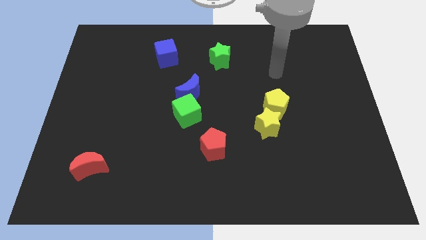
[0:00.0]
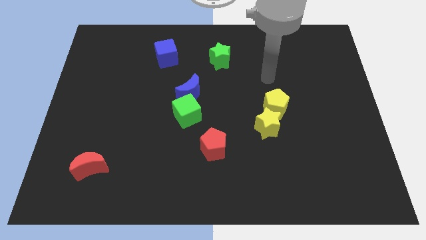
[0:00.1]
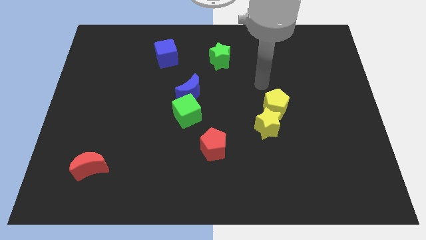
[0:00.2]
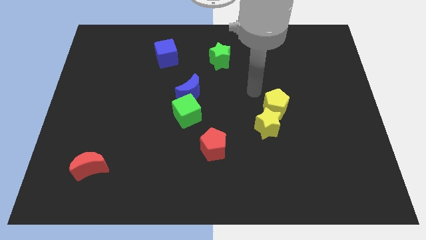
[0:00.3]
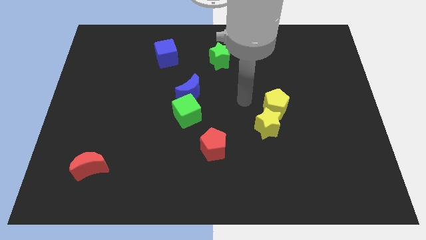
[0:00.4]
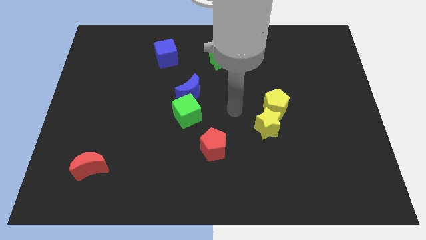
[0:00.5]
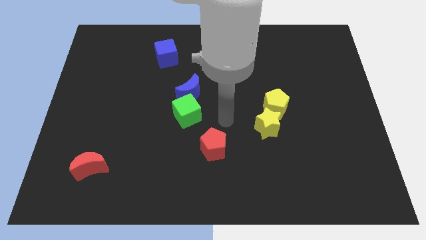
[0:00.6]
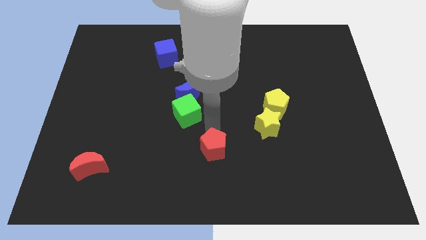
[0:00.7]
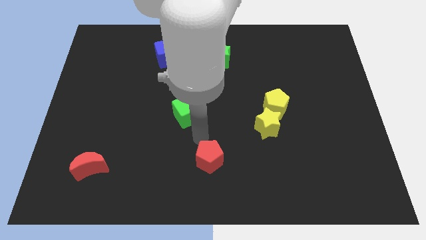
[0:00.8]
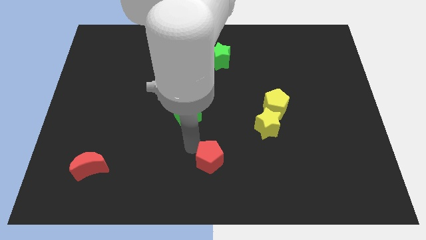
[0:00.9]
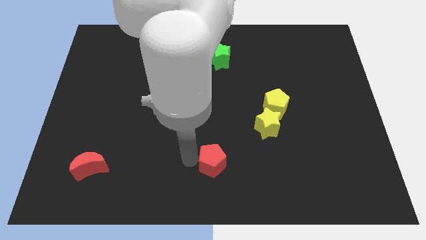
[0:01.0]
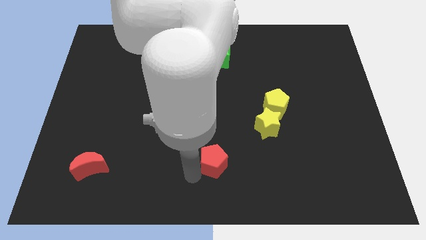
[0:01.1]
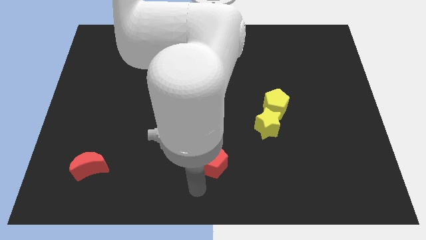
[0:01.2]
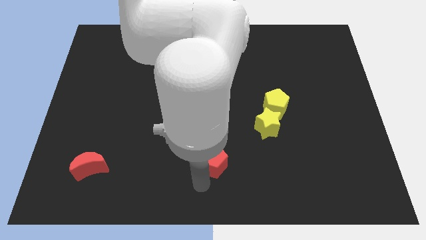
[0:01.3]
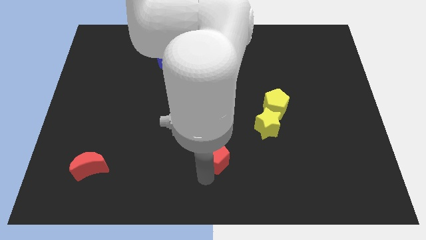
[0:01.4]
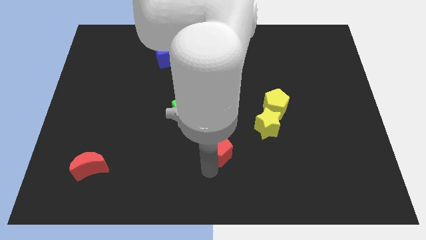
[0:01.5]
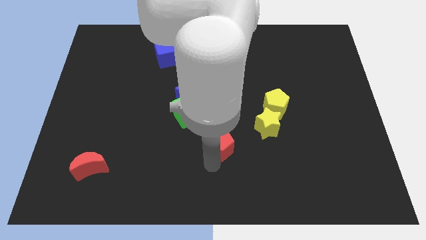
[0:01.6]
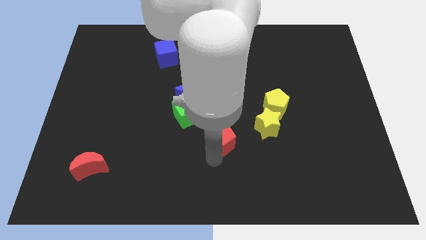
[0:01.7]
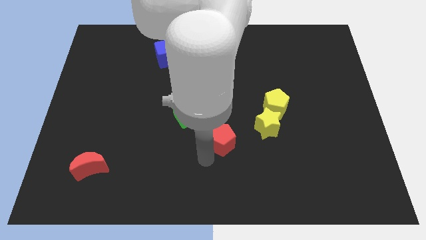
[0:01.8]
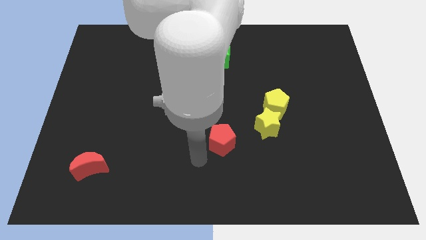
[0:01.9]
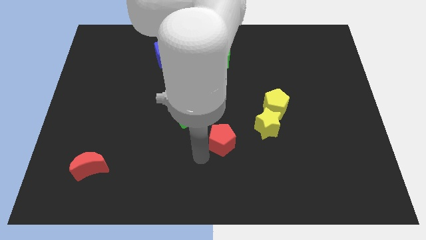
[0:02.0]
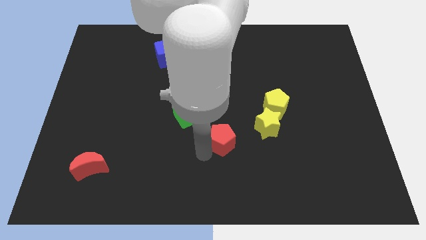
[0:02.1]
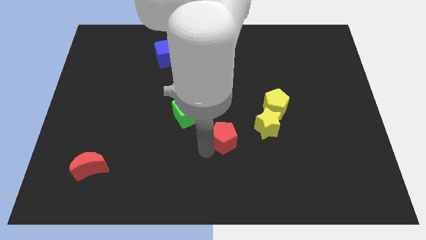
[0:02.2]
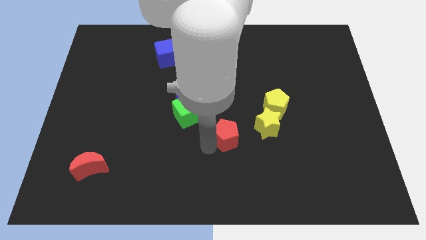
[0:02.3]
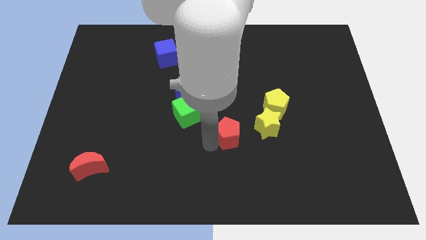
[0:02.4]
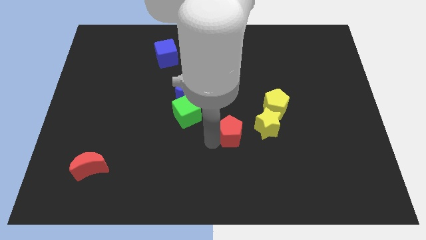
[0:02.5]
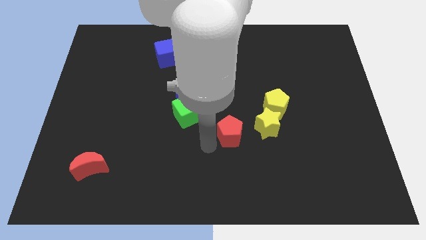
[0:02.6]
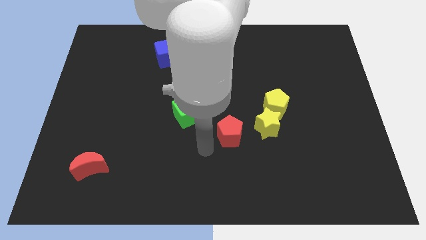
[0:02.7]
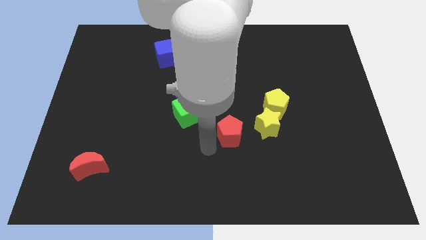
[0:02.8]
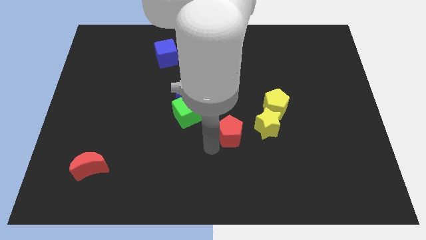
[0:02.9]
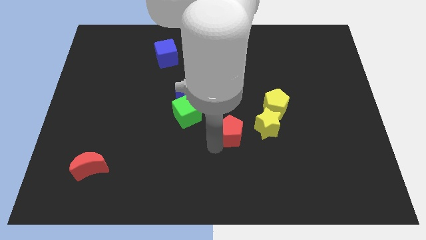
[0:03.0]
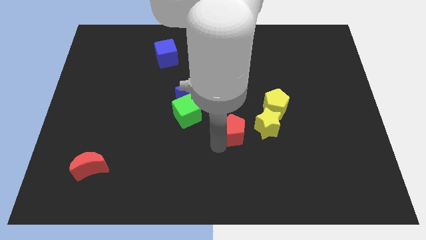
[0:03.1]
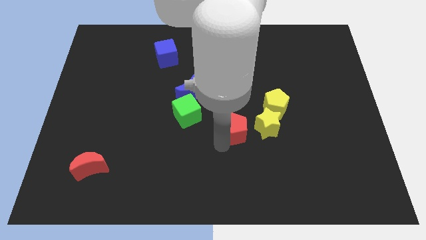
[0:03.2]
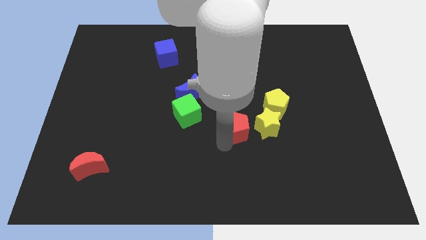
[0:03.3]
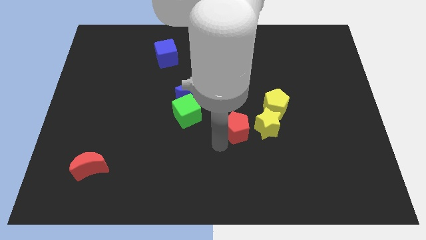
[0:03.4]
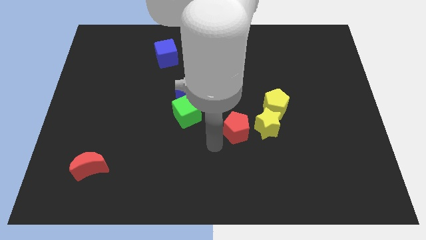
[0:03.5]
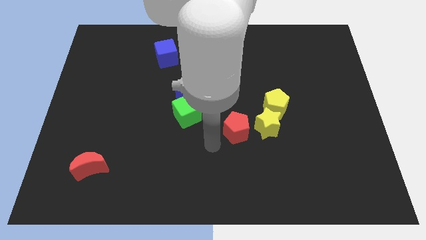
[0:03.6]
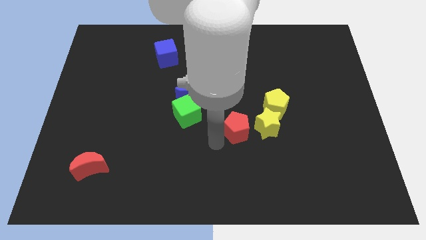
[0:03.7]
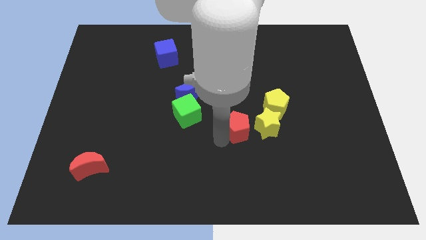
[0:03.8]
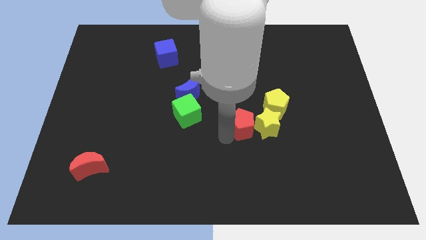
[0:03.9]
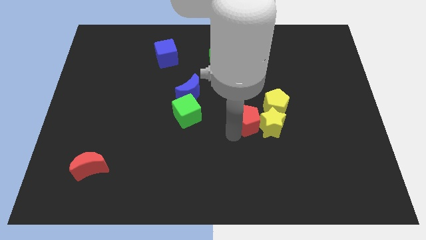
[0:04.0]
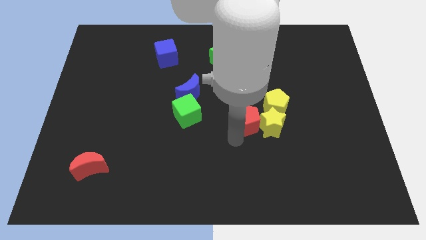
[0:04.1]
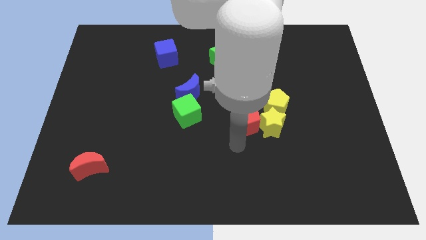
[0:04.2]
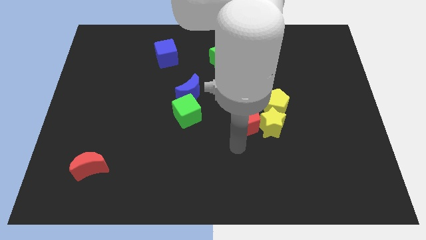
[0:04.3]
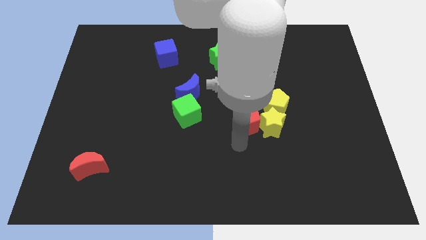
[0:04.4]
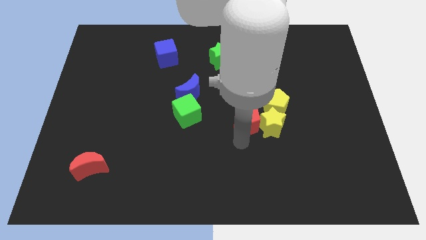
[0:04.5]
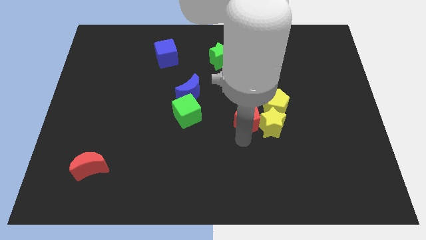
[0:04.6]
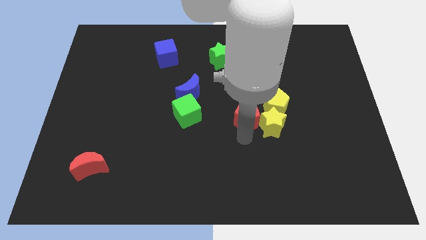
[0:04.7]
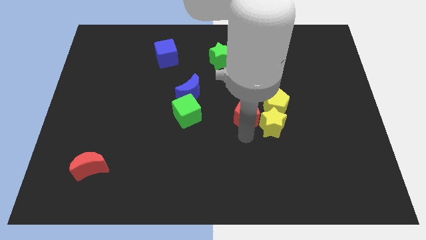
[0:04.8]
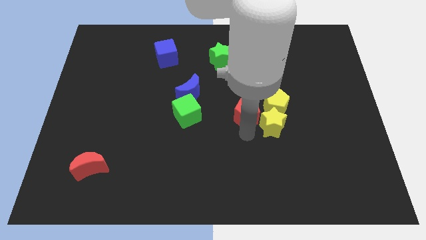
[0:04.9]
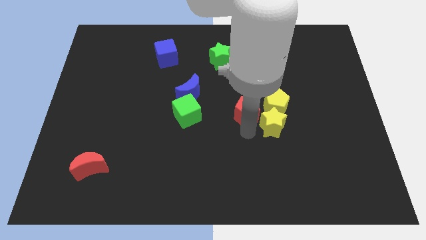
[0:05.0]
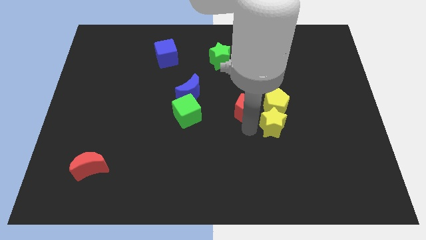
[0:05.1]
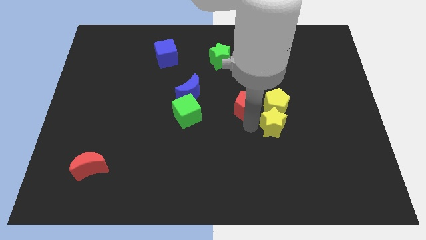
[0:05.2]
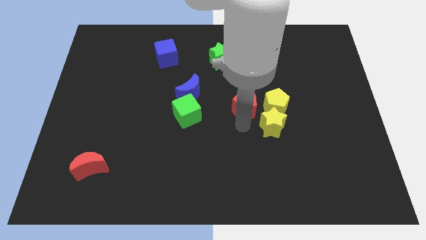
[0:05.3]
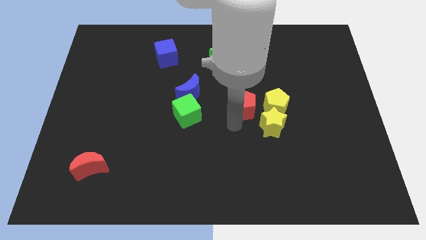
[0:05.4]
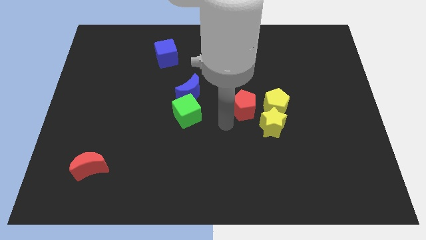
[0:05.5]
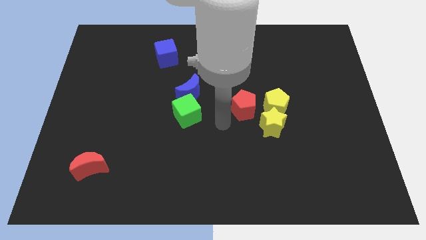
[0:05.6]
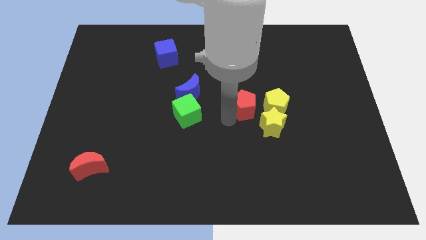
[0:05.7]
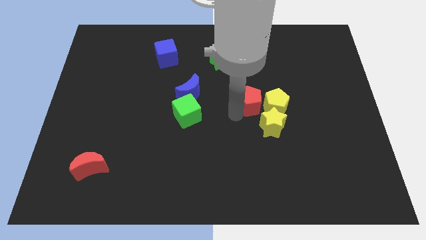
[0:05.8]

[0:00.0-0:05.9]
move the red pentagon to the top of the yellow star

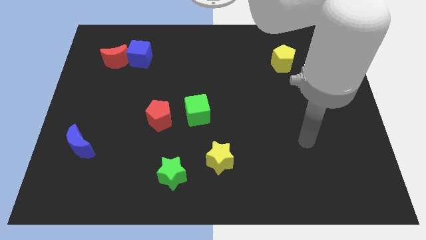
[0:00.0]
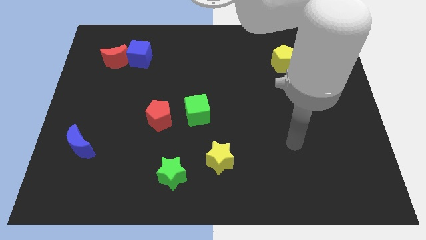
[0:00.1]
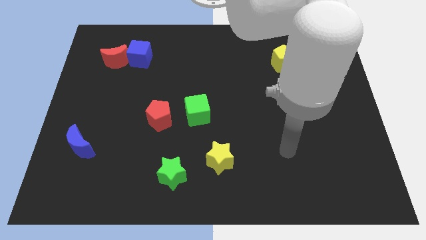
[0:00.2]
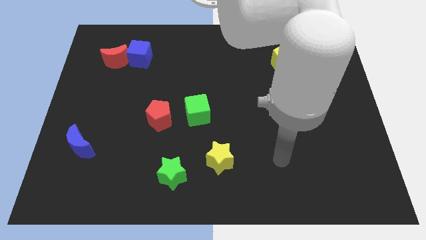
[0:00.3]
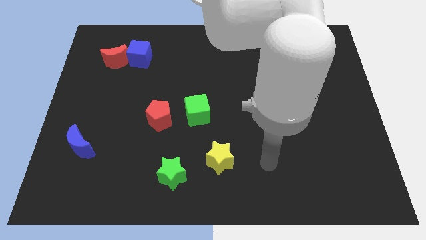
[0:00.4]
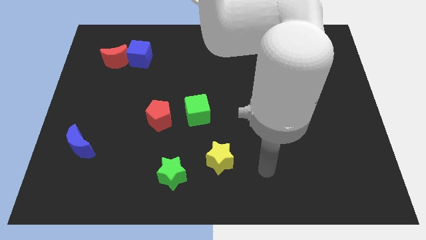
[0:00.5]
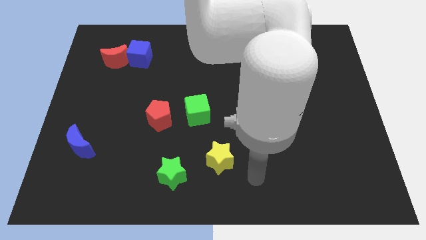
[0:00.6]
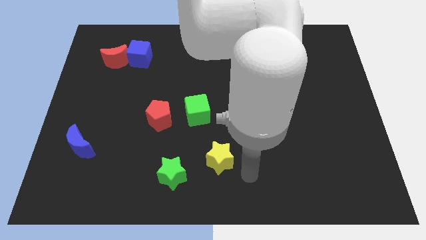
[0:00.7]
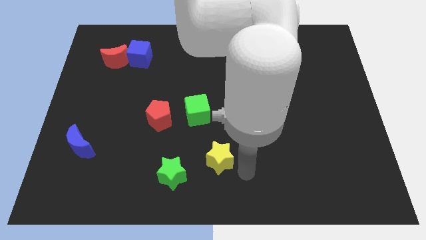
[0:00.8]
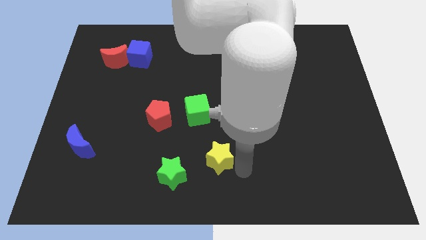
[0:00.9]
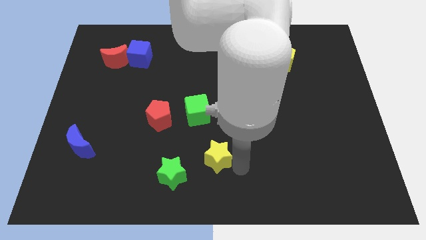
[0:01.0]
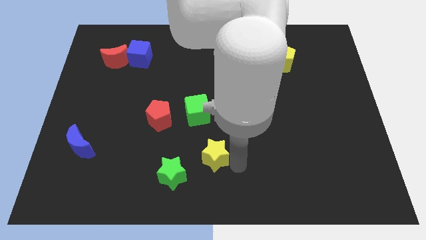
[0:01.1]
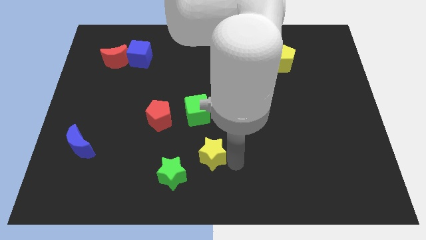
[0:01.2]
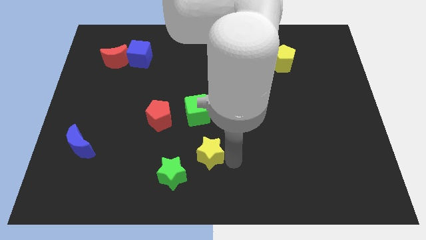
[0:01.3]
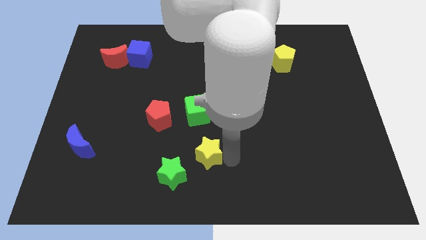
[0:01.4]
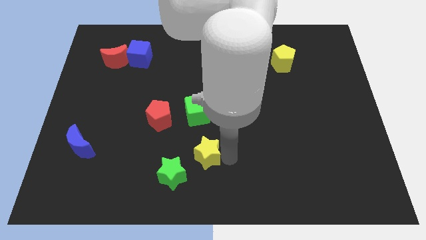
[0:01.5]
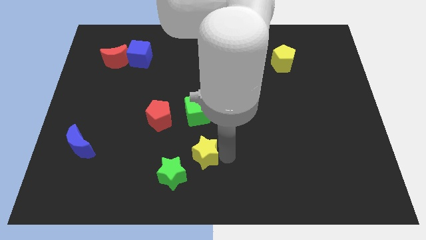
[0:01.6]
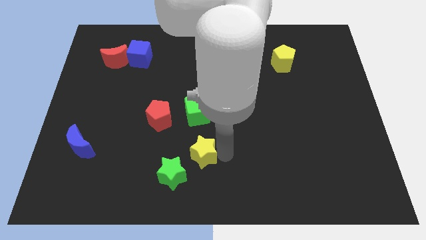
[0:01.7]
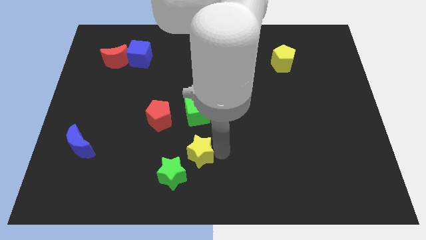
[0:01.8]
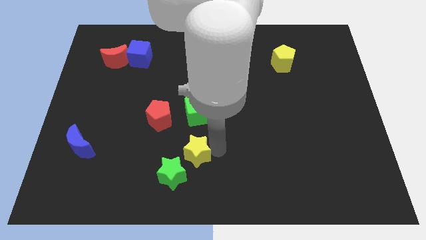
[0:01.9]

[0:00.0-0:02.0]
move the yellow star to the top of the green star
